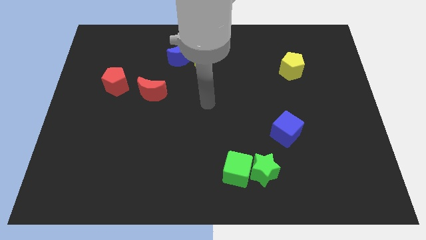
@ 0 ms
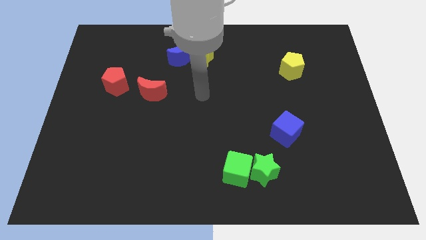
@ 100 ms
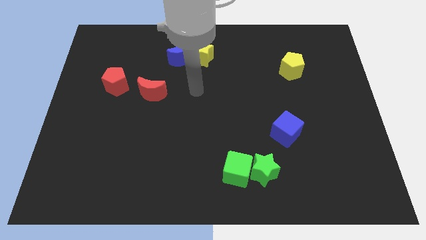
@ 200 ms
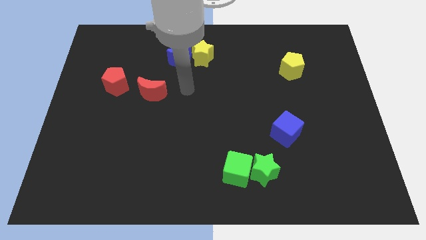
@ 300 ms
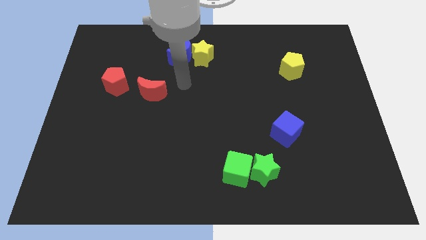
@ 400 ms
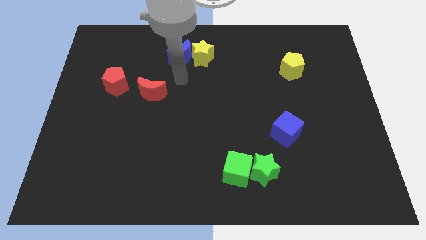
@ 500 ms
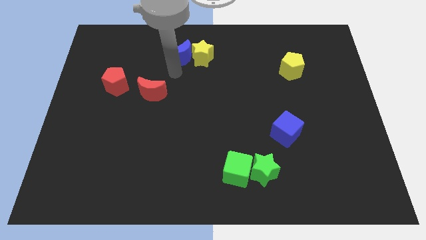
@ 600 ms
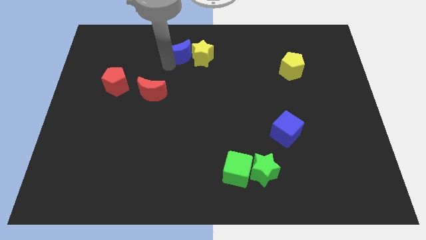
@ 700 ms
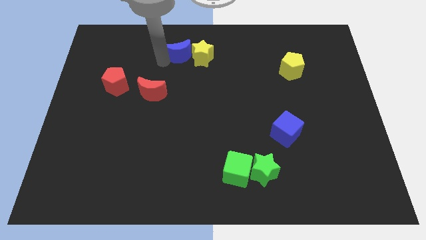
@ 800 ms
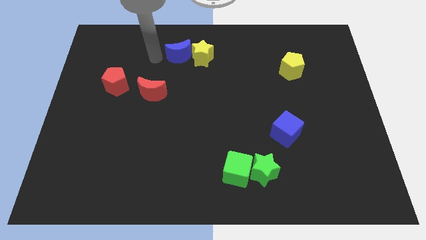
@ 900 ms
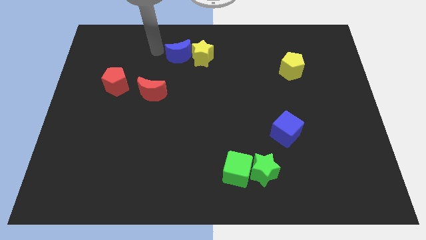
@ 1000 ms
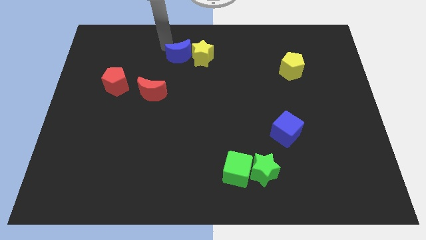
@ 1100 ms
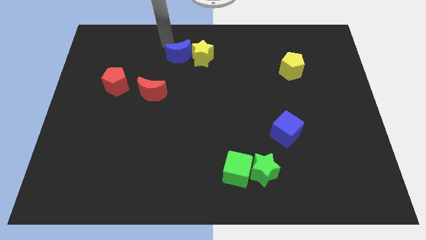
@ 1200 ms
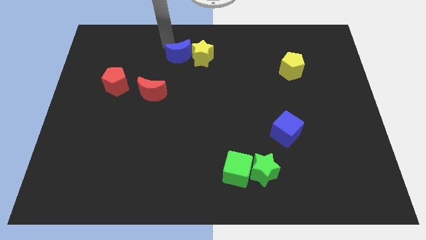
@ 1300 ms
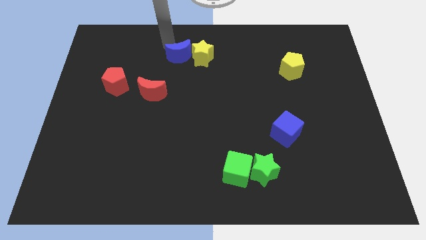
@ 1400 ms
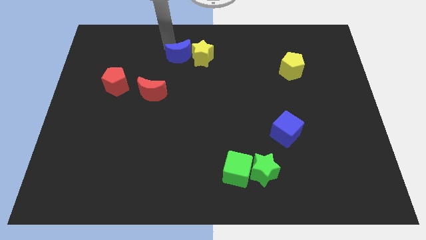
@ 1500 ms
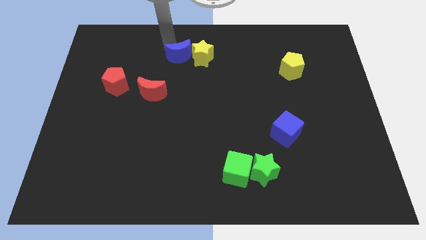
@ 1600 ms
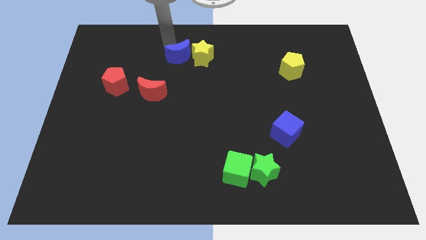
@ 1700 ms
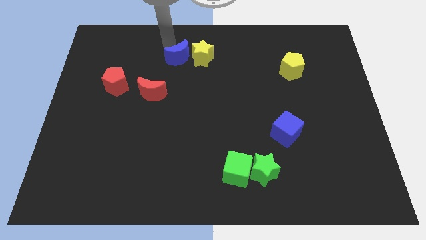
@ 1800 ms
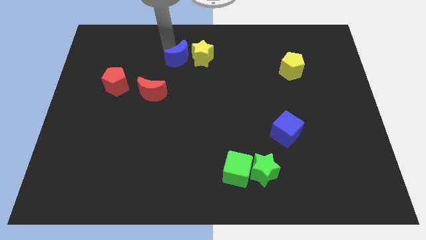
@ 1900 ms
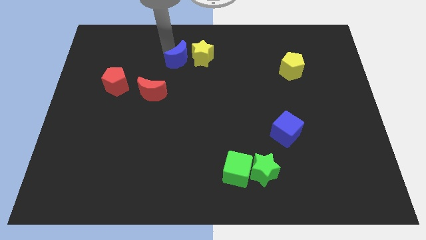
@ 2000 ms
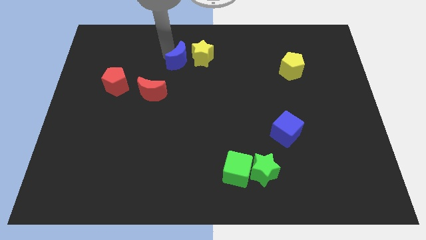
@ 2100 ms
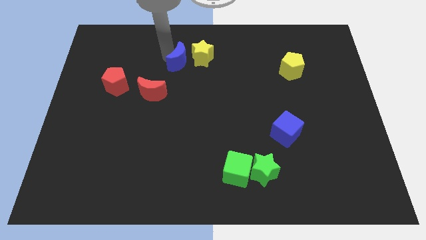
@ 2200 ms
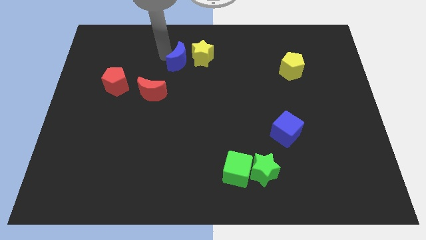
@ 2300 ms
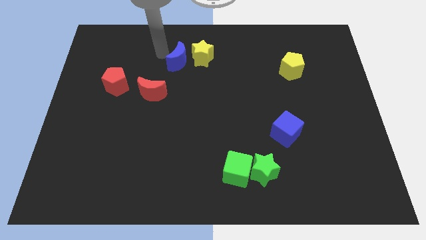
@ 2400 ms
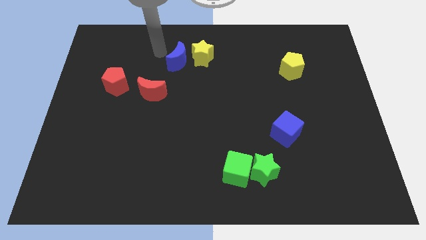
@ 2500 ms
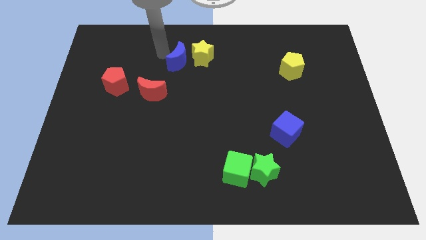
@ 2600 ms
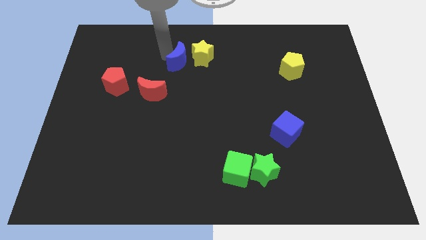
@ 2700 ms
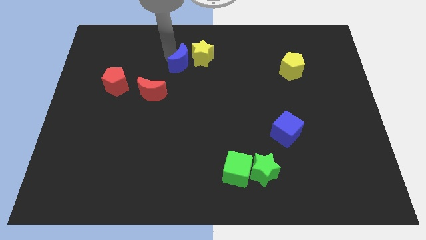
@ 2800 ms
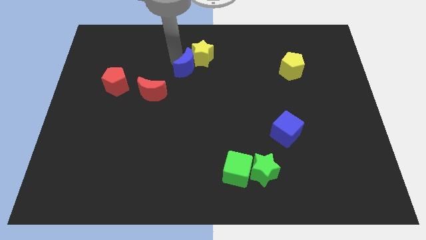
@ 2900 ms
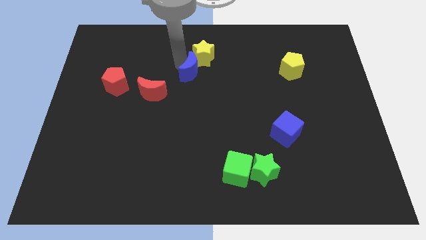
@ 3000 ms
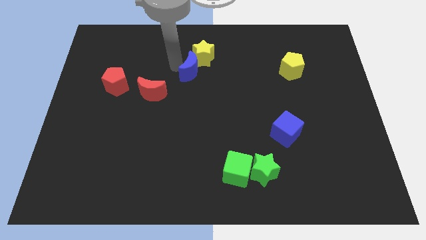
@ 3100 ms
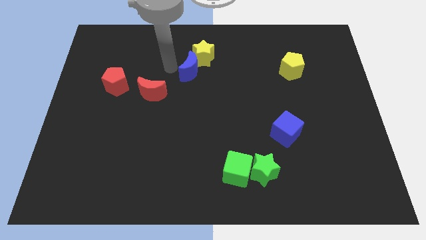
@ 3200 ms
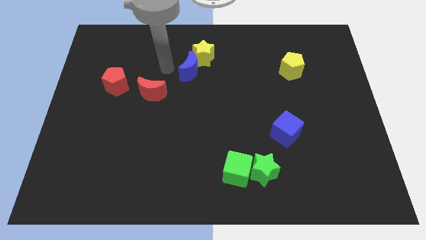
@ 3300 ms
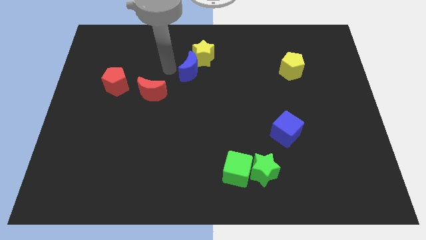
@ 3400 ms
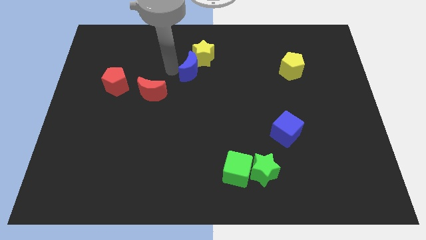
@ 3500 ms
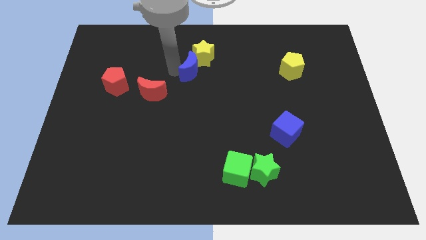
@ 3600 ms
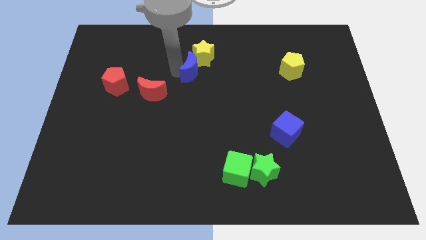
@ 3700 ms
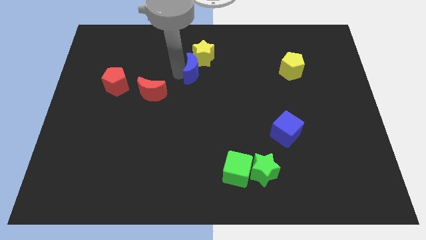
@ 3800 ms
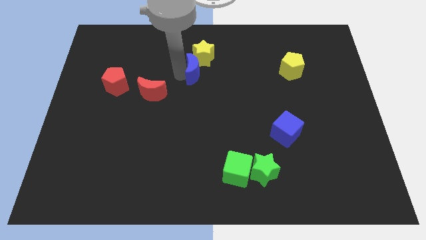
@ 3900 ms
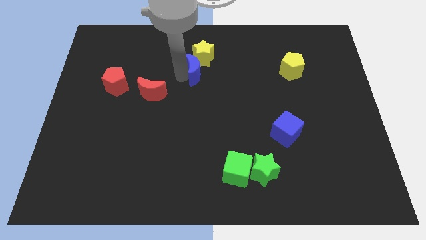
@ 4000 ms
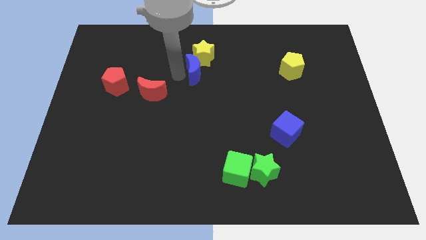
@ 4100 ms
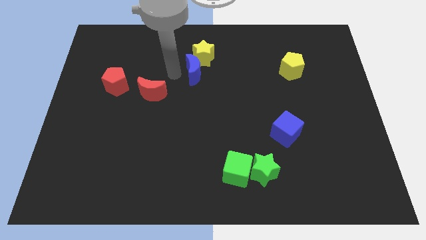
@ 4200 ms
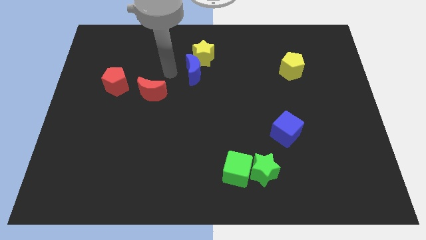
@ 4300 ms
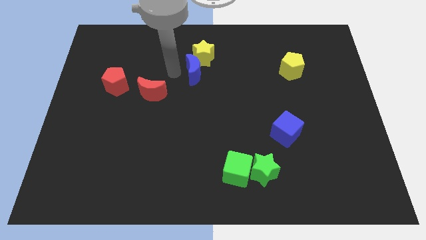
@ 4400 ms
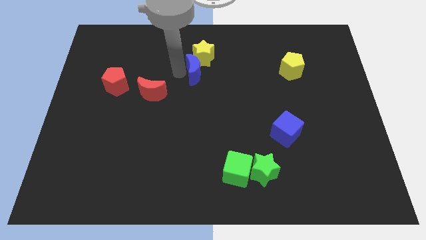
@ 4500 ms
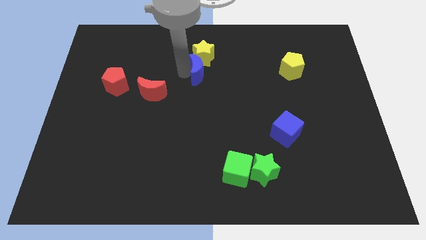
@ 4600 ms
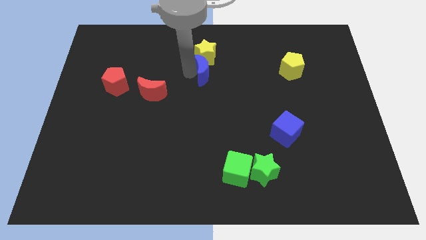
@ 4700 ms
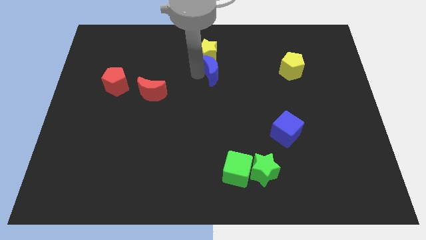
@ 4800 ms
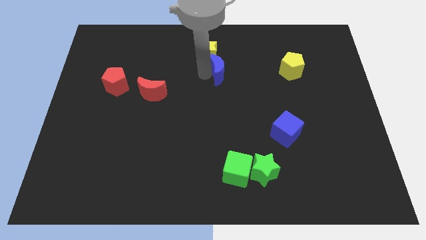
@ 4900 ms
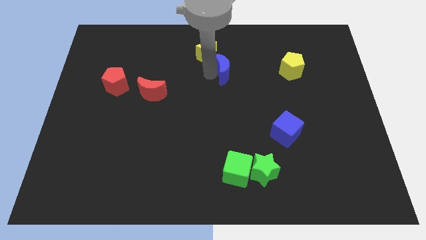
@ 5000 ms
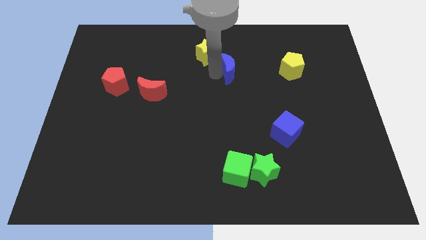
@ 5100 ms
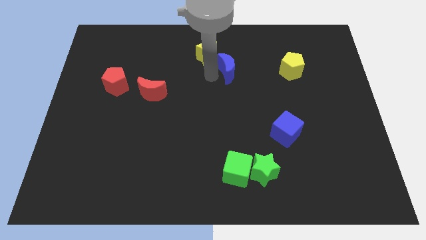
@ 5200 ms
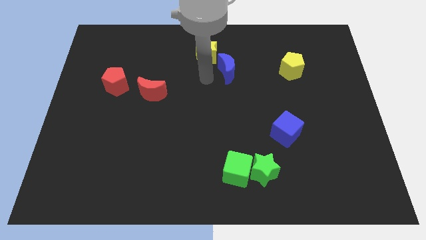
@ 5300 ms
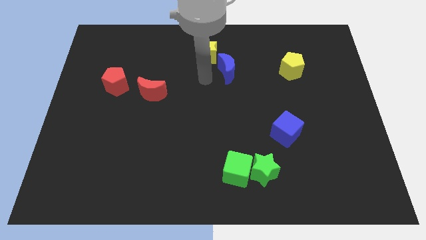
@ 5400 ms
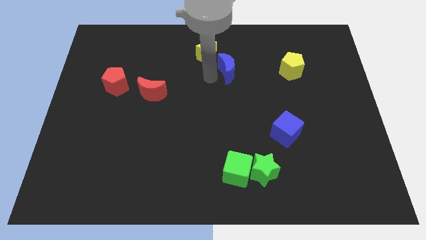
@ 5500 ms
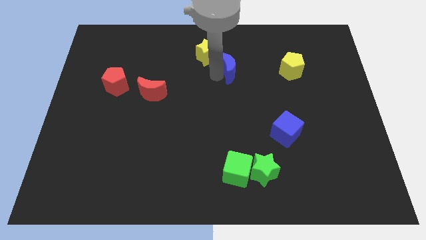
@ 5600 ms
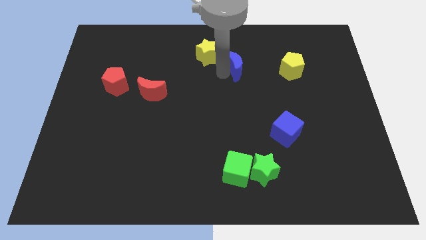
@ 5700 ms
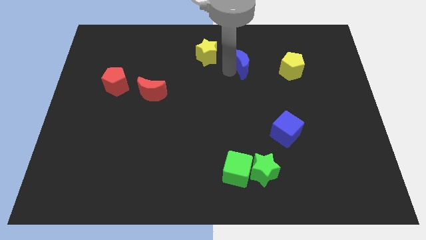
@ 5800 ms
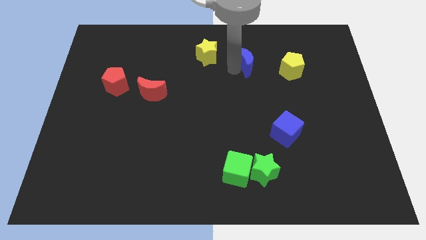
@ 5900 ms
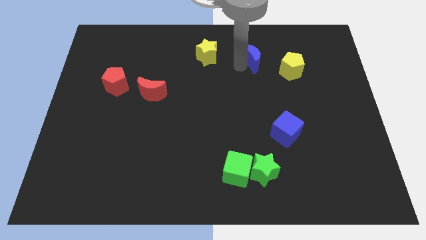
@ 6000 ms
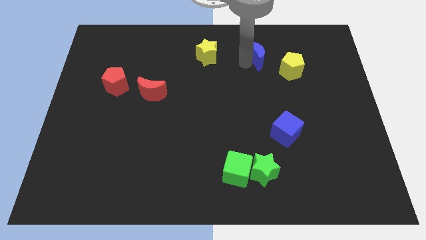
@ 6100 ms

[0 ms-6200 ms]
push the blue moon right

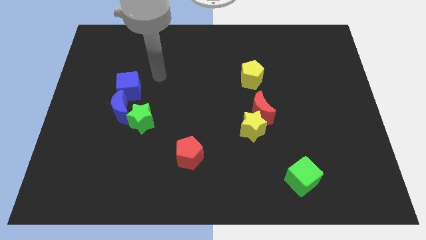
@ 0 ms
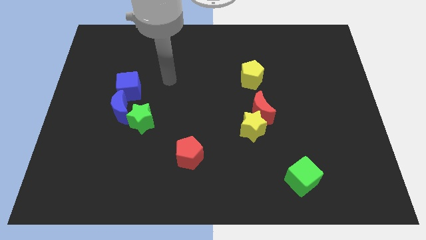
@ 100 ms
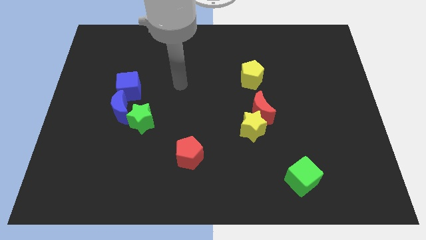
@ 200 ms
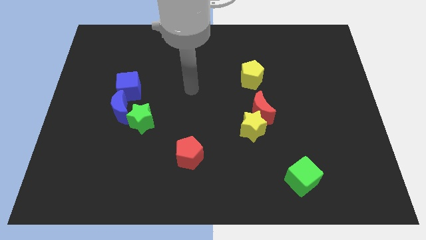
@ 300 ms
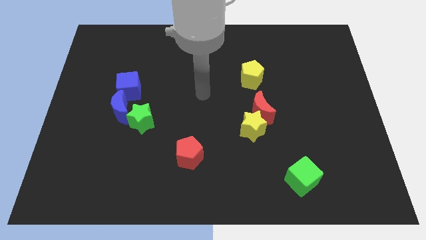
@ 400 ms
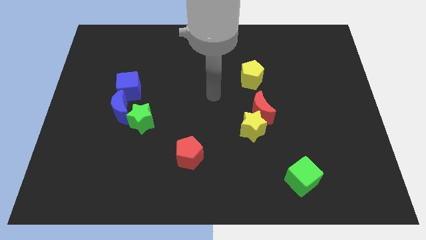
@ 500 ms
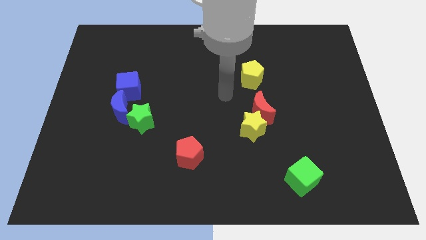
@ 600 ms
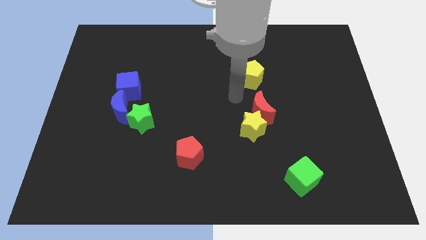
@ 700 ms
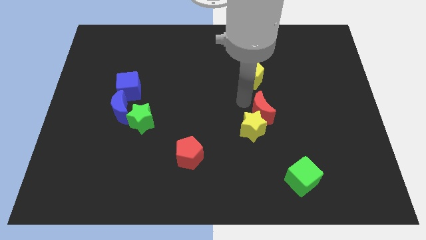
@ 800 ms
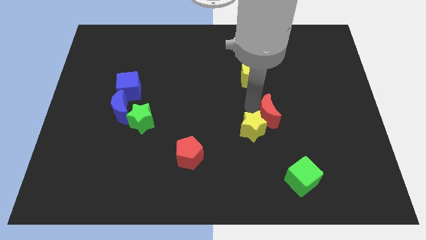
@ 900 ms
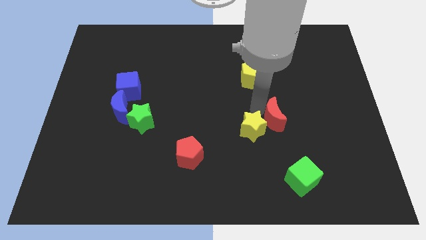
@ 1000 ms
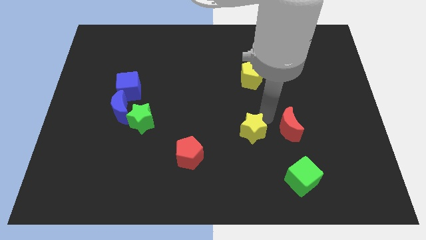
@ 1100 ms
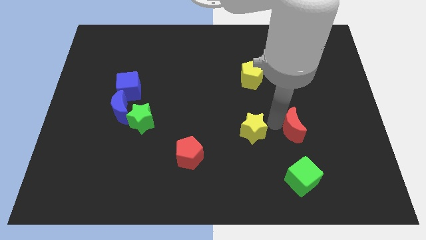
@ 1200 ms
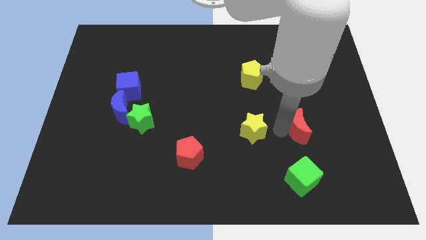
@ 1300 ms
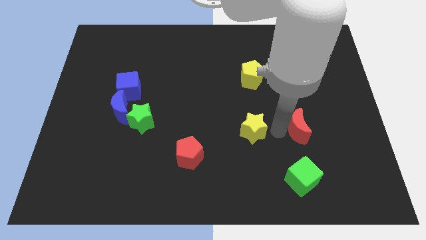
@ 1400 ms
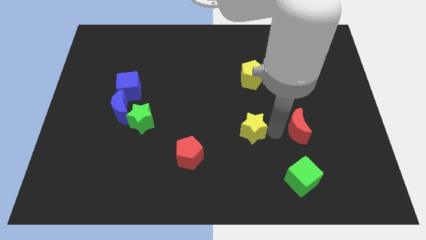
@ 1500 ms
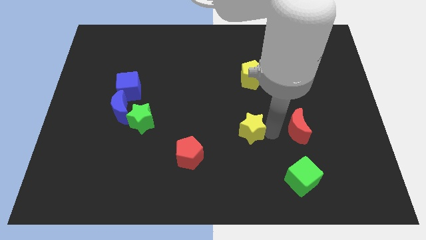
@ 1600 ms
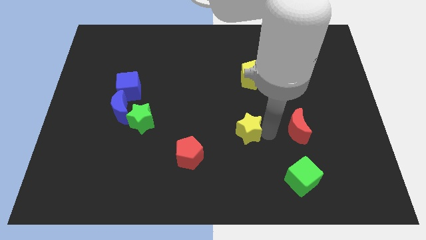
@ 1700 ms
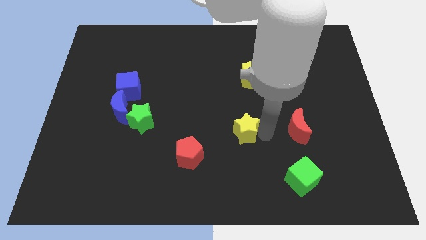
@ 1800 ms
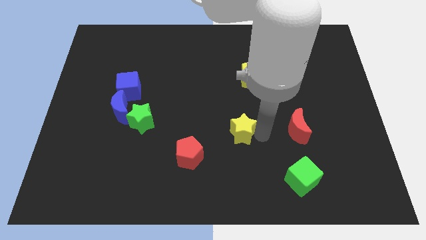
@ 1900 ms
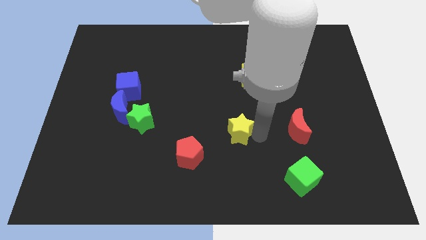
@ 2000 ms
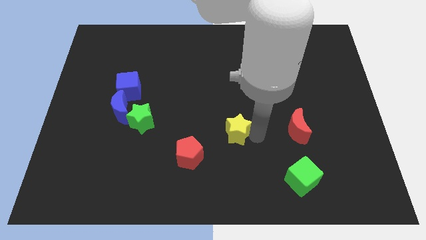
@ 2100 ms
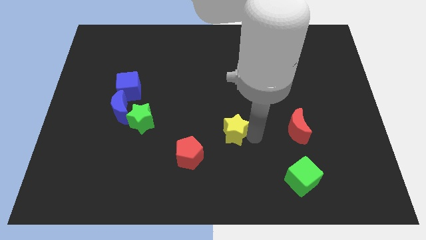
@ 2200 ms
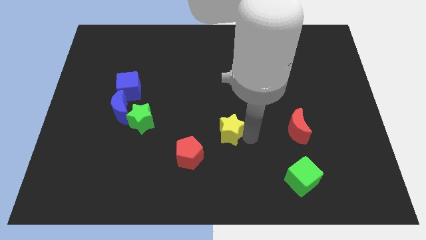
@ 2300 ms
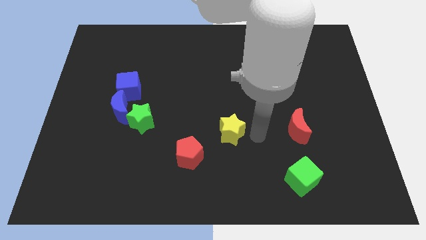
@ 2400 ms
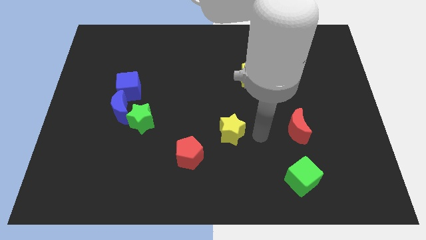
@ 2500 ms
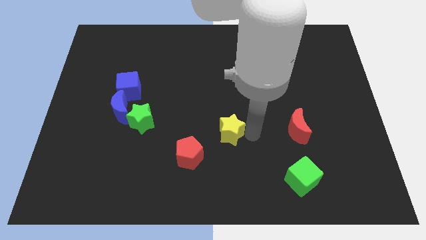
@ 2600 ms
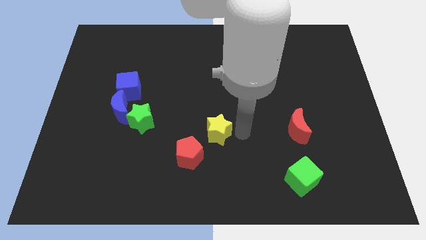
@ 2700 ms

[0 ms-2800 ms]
move the yellow star a little bit left
